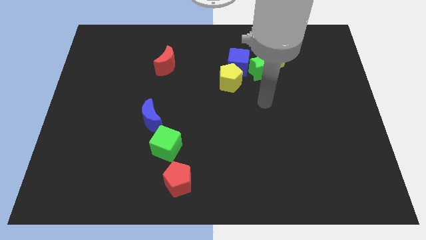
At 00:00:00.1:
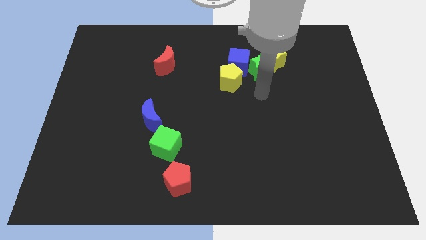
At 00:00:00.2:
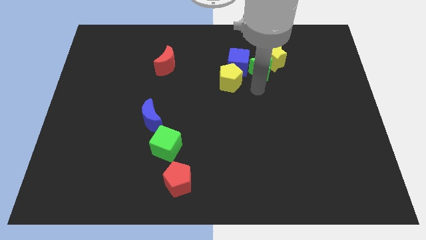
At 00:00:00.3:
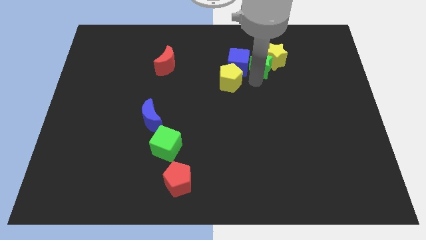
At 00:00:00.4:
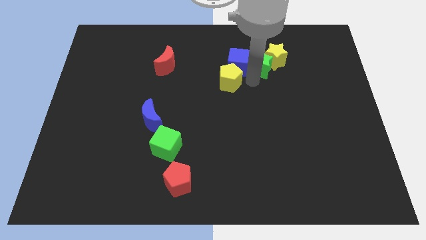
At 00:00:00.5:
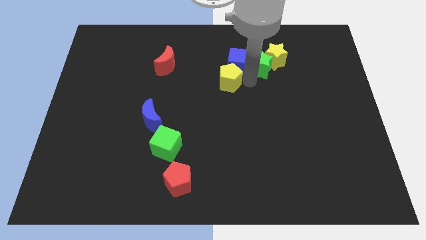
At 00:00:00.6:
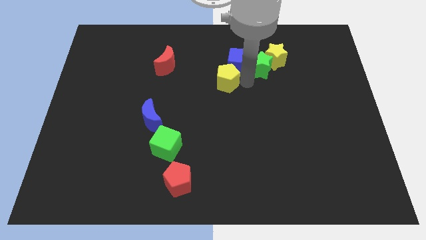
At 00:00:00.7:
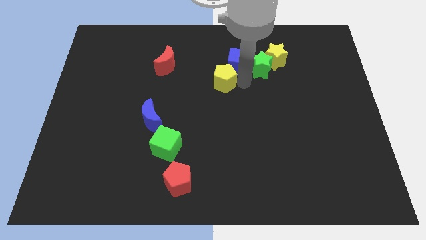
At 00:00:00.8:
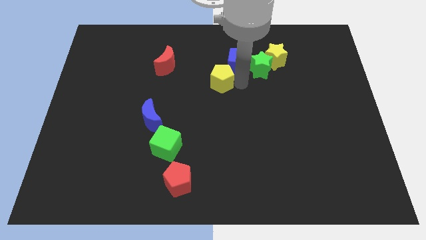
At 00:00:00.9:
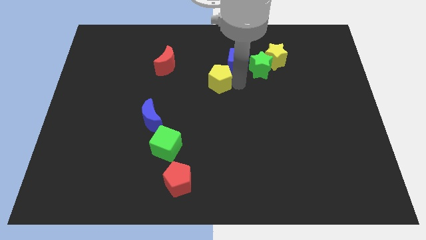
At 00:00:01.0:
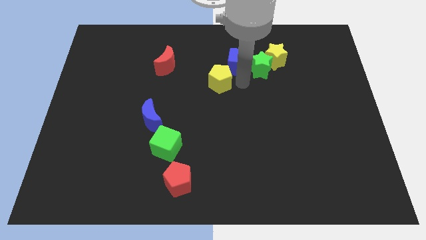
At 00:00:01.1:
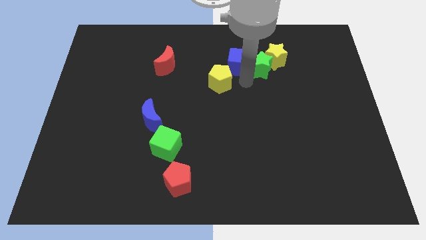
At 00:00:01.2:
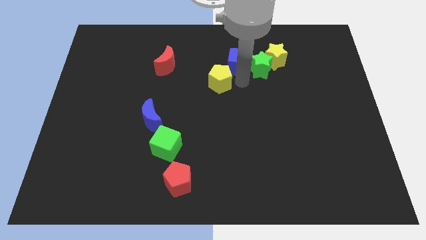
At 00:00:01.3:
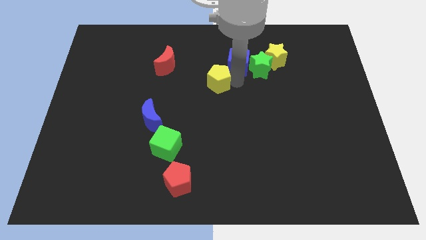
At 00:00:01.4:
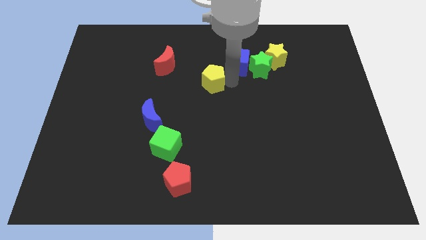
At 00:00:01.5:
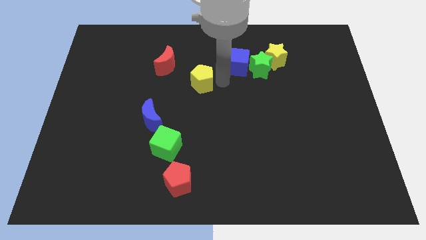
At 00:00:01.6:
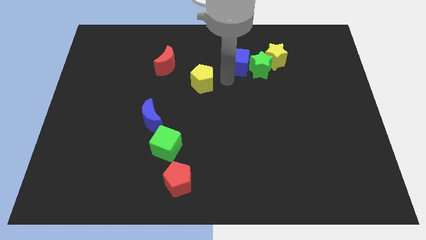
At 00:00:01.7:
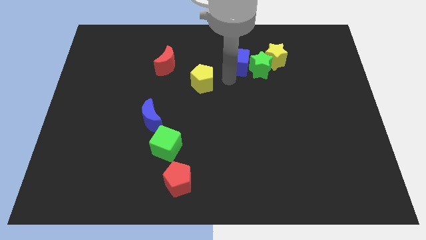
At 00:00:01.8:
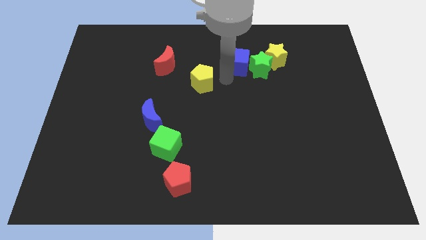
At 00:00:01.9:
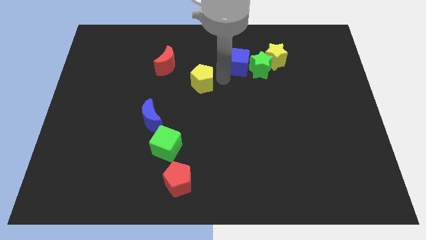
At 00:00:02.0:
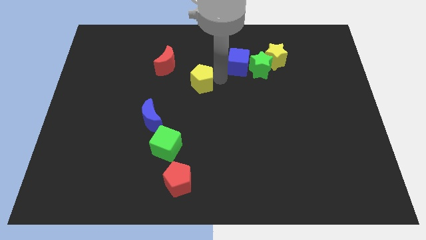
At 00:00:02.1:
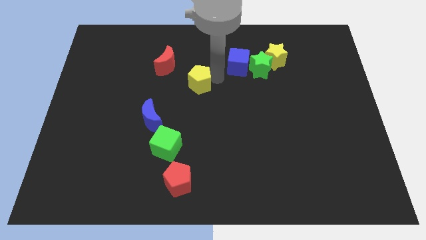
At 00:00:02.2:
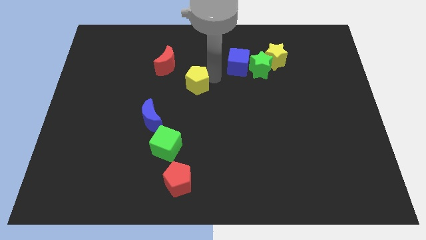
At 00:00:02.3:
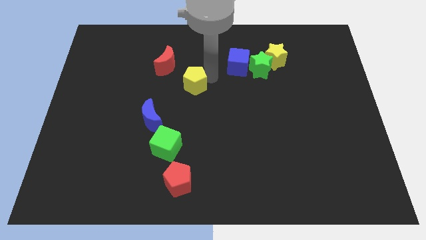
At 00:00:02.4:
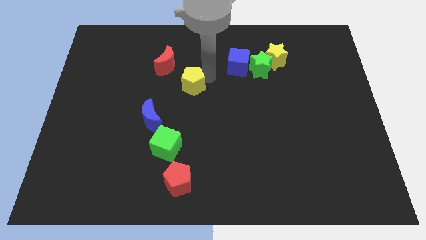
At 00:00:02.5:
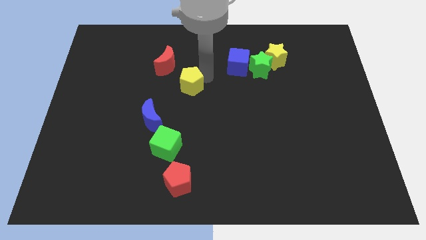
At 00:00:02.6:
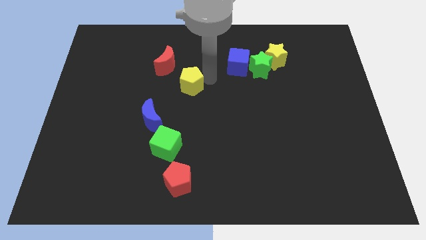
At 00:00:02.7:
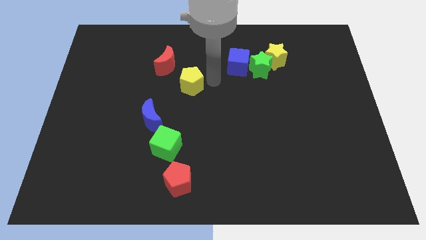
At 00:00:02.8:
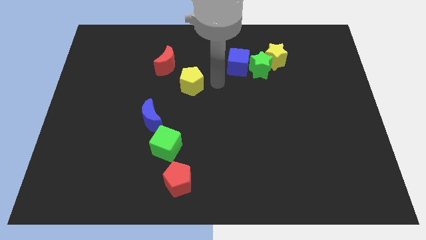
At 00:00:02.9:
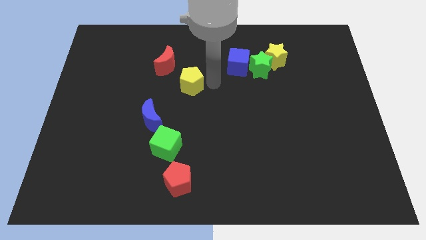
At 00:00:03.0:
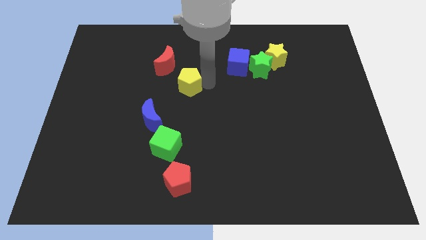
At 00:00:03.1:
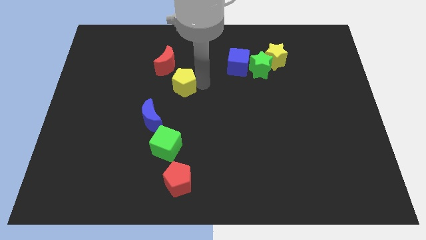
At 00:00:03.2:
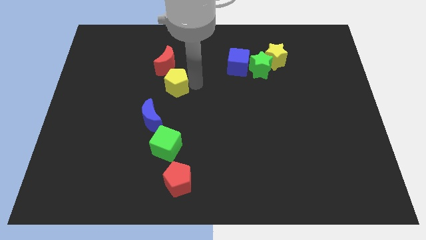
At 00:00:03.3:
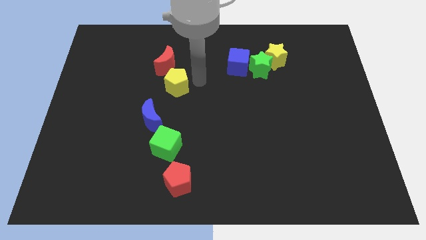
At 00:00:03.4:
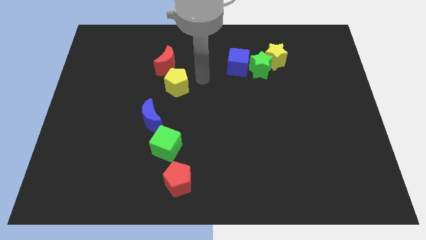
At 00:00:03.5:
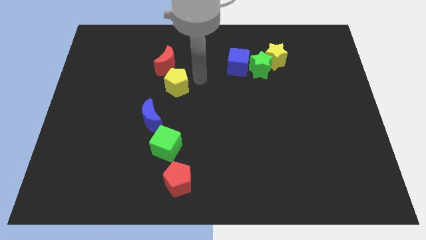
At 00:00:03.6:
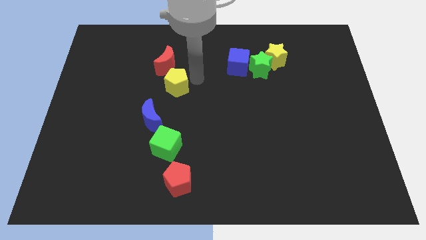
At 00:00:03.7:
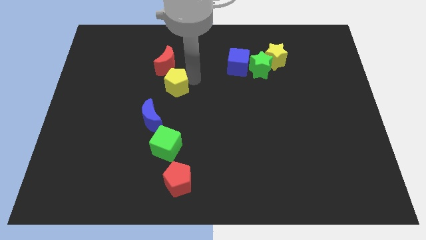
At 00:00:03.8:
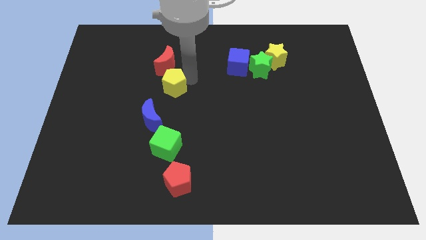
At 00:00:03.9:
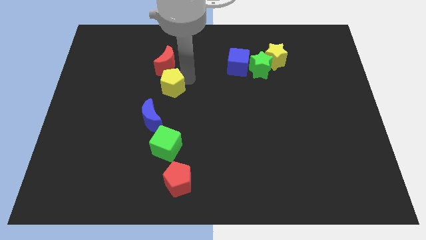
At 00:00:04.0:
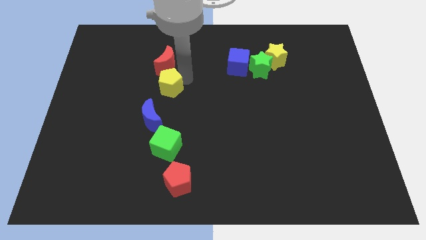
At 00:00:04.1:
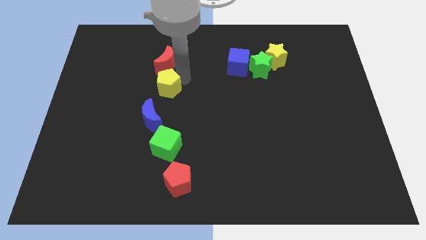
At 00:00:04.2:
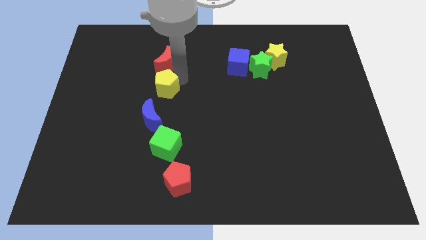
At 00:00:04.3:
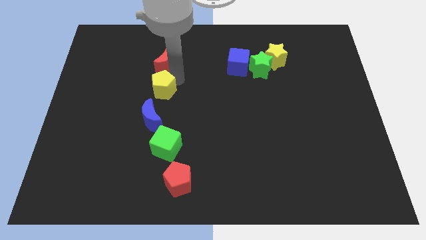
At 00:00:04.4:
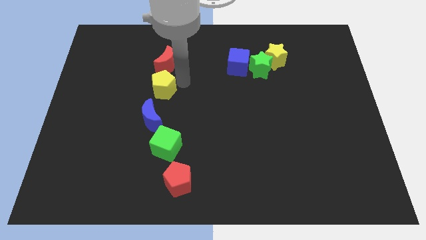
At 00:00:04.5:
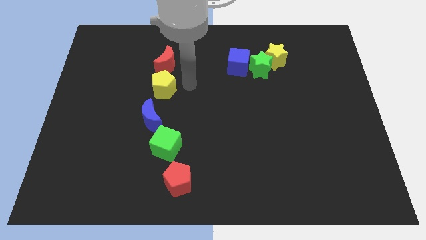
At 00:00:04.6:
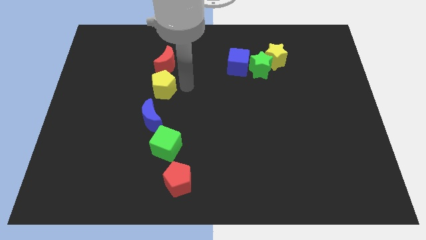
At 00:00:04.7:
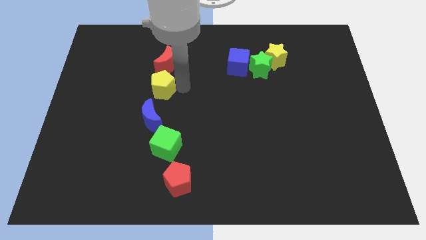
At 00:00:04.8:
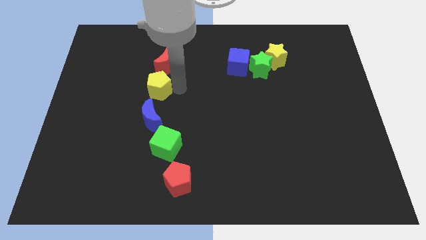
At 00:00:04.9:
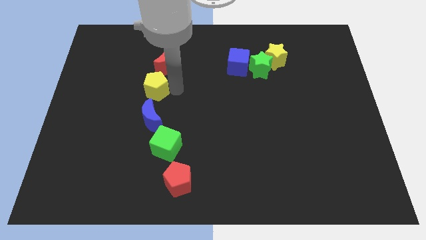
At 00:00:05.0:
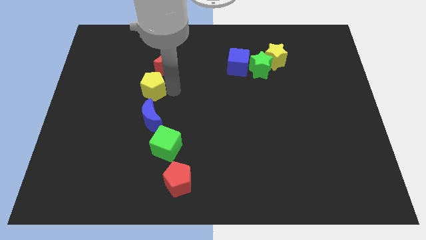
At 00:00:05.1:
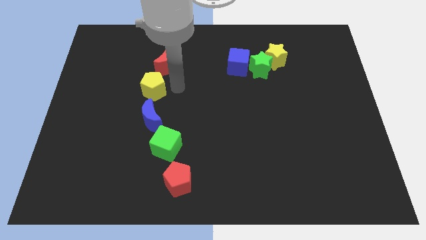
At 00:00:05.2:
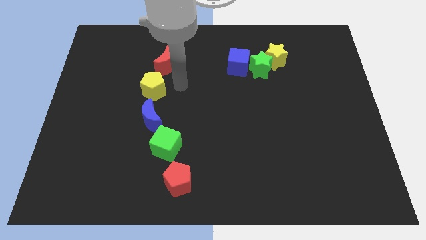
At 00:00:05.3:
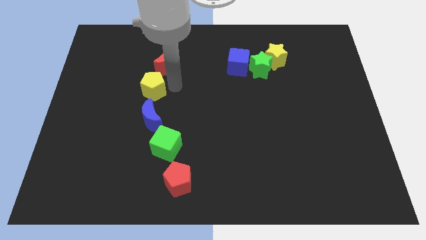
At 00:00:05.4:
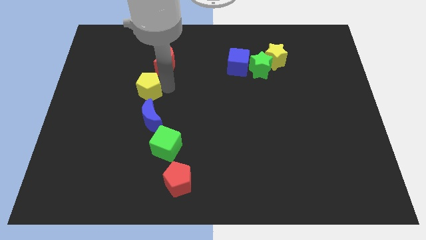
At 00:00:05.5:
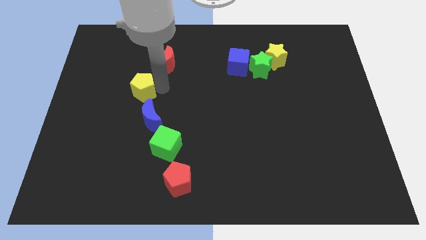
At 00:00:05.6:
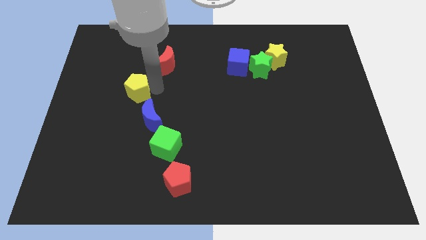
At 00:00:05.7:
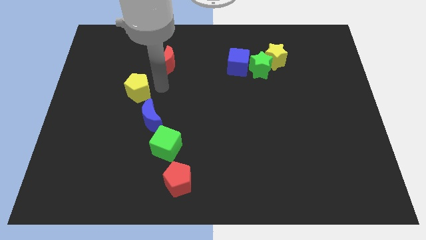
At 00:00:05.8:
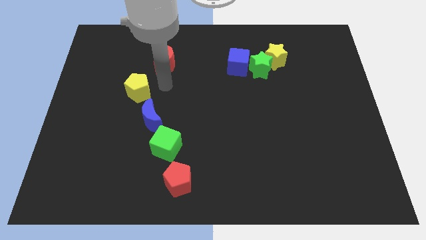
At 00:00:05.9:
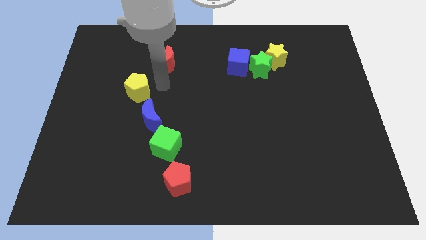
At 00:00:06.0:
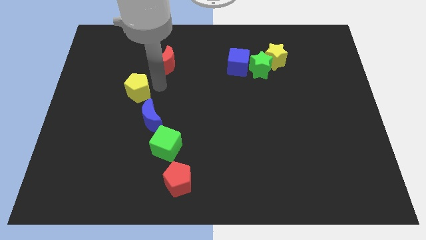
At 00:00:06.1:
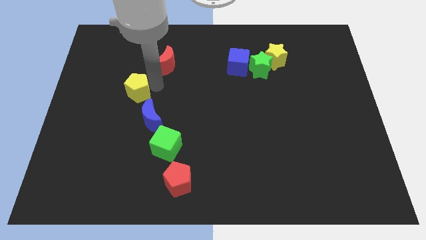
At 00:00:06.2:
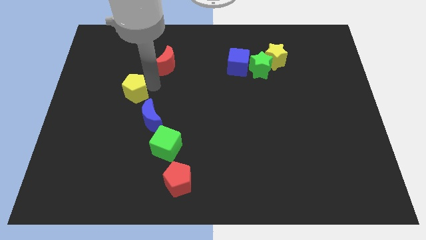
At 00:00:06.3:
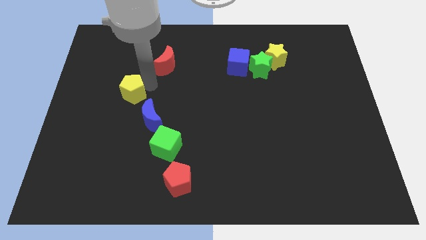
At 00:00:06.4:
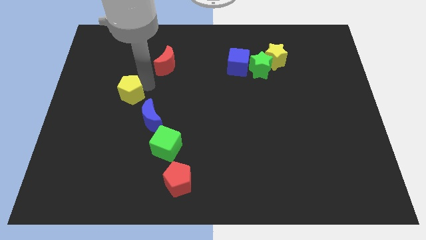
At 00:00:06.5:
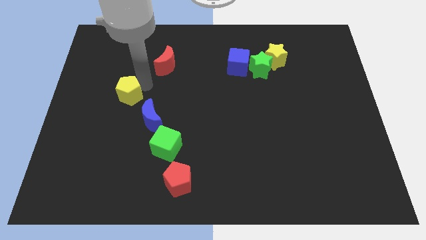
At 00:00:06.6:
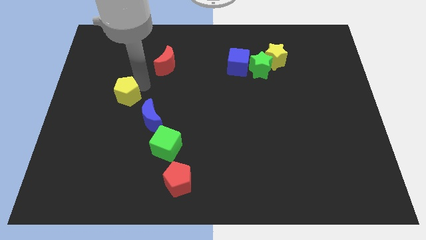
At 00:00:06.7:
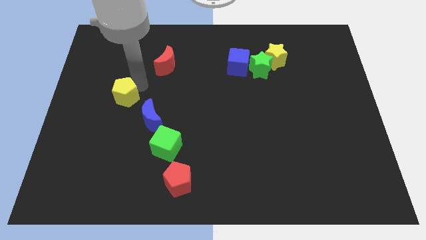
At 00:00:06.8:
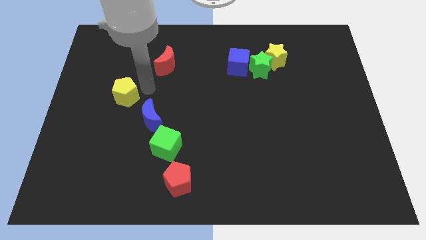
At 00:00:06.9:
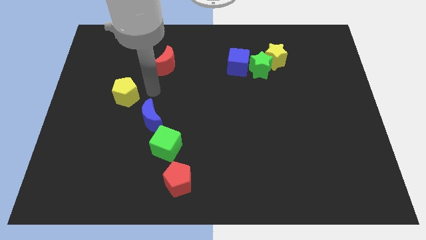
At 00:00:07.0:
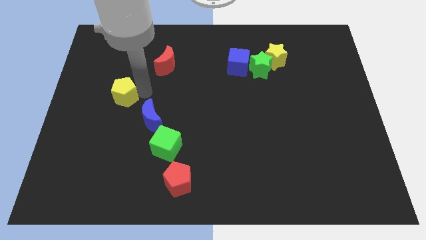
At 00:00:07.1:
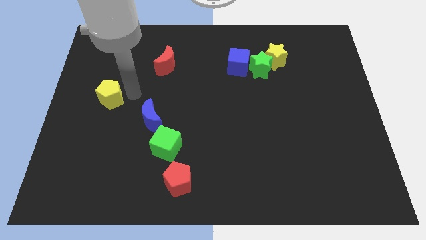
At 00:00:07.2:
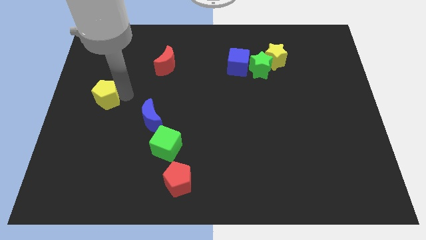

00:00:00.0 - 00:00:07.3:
slide the yellow pentagon to the left side of the board
